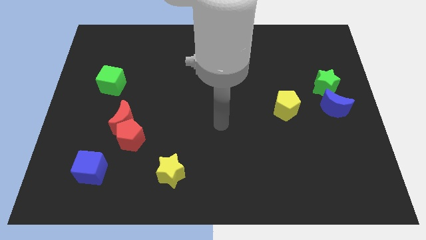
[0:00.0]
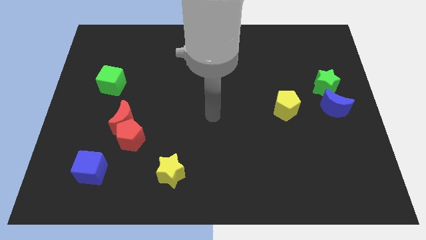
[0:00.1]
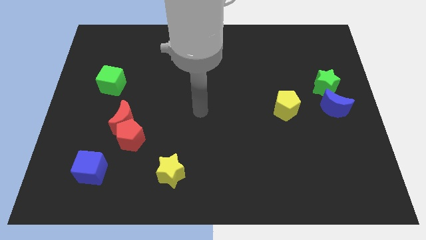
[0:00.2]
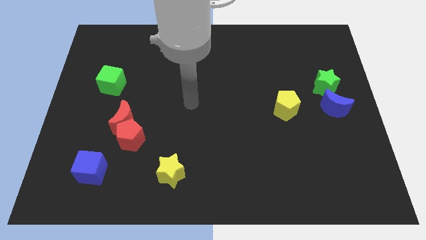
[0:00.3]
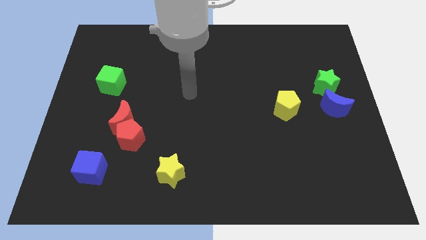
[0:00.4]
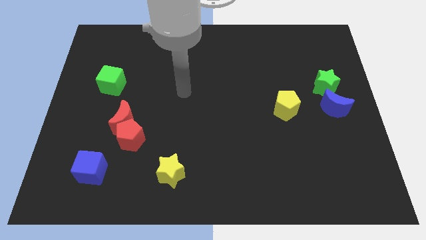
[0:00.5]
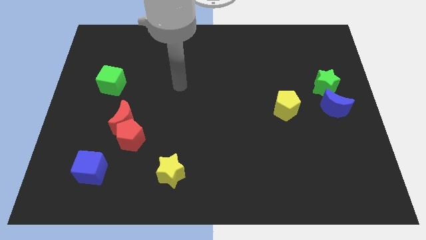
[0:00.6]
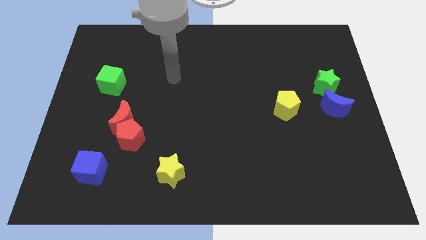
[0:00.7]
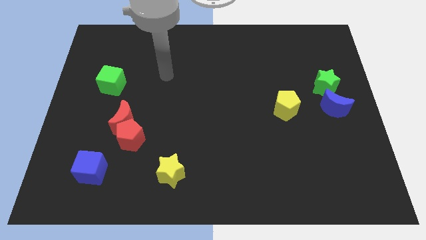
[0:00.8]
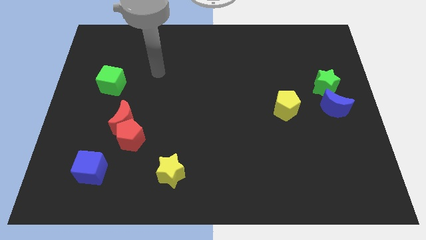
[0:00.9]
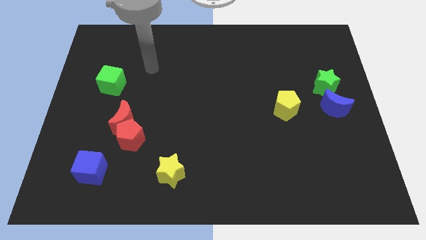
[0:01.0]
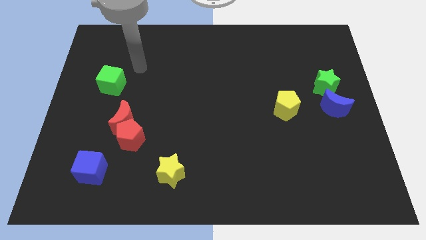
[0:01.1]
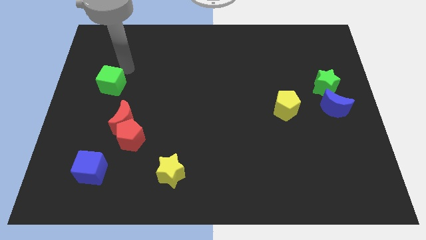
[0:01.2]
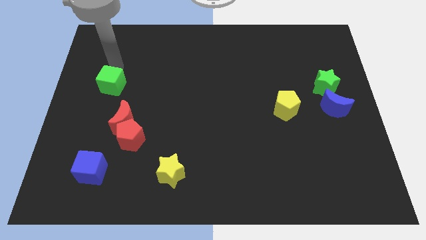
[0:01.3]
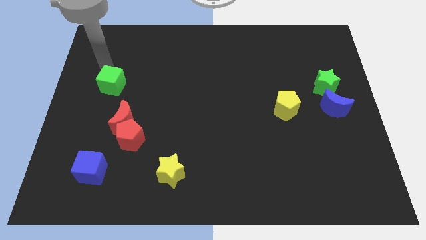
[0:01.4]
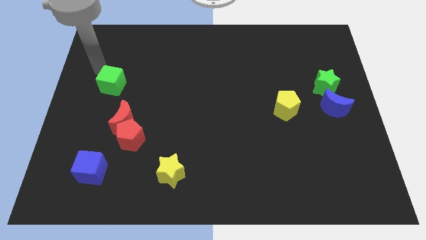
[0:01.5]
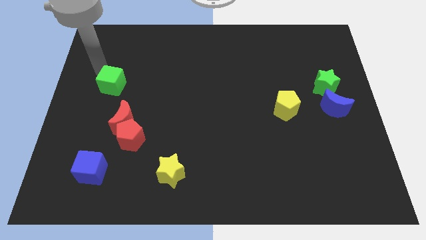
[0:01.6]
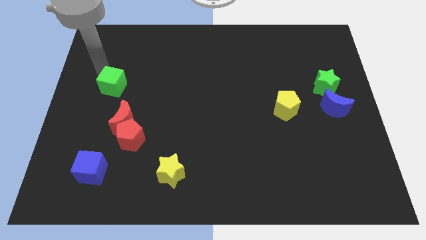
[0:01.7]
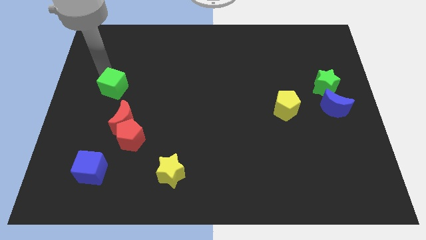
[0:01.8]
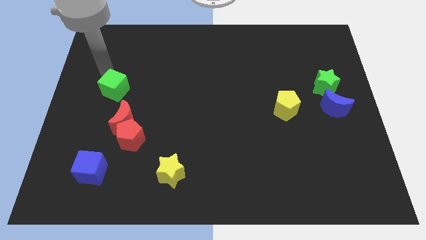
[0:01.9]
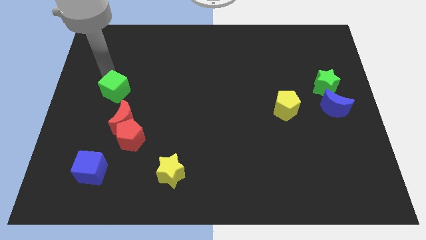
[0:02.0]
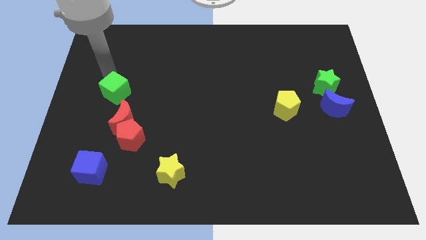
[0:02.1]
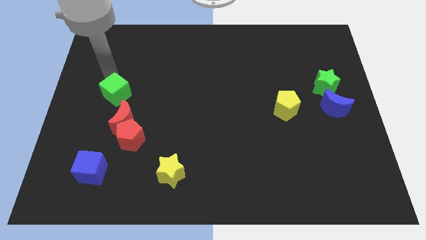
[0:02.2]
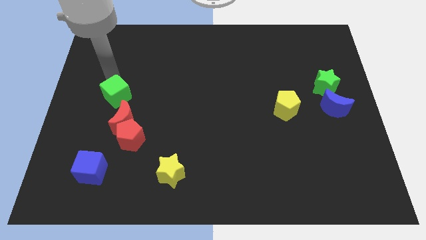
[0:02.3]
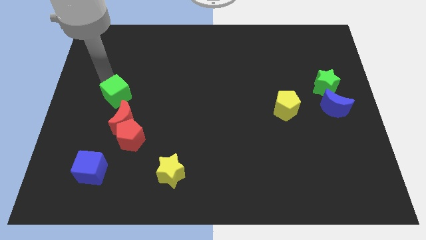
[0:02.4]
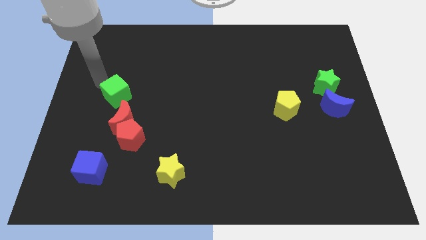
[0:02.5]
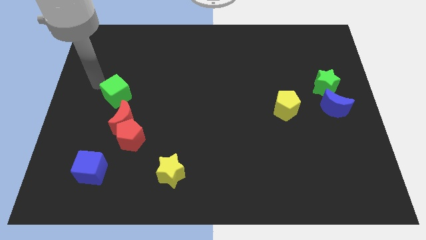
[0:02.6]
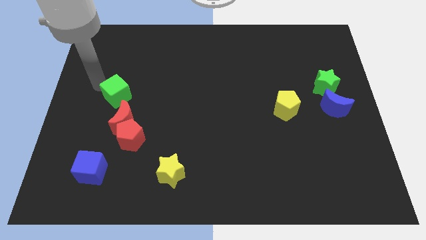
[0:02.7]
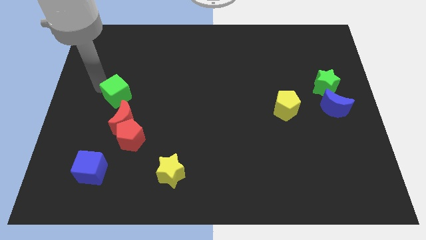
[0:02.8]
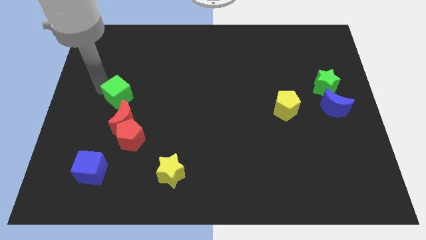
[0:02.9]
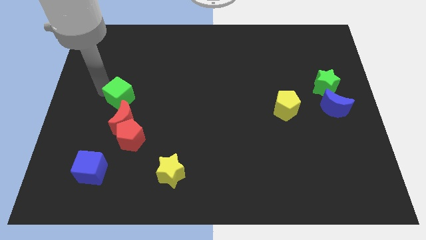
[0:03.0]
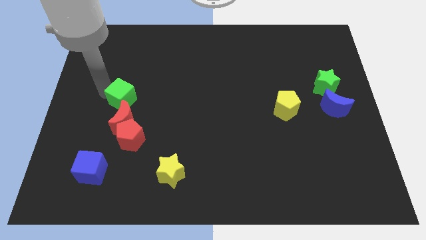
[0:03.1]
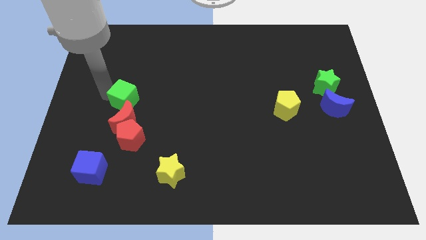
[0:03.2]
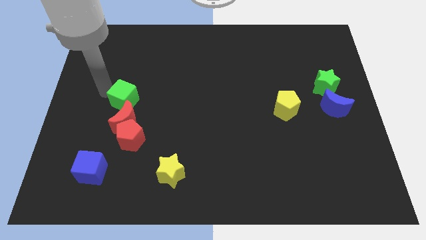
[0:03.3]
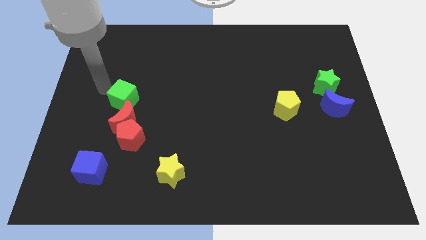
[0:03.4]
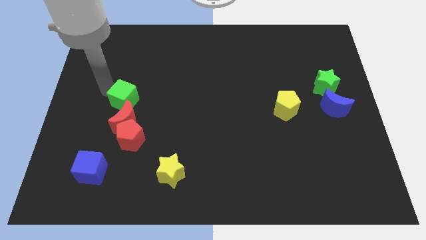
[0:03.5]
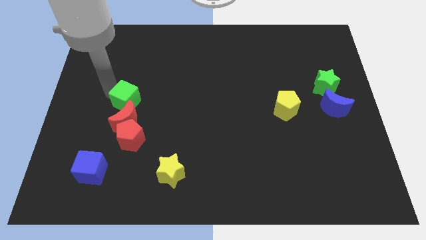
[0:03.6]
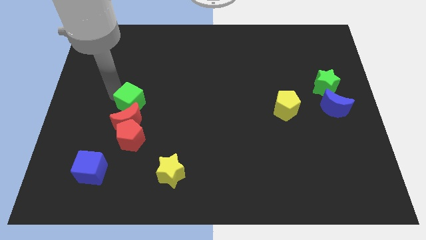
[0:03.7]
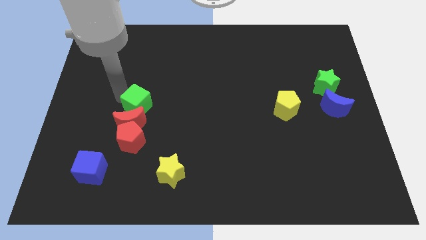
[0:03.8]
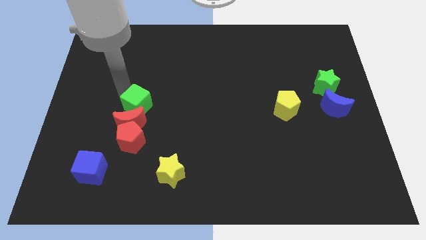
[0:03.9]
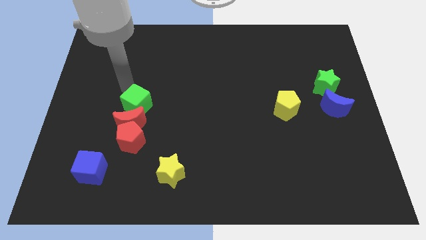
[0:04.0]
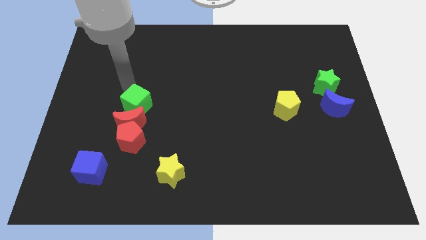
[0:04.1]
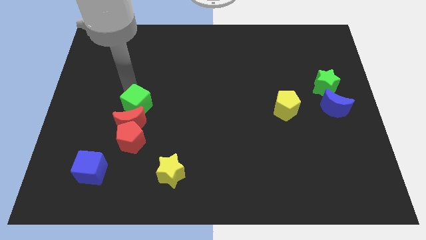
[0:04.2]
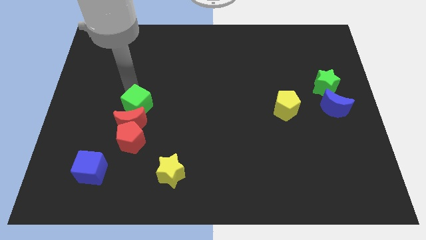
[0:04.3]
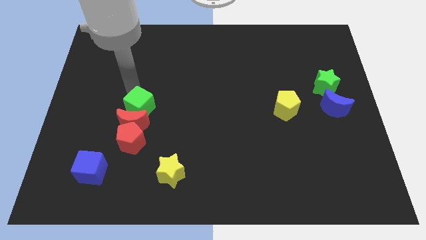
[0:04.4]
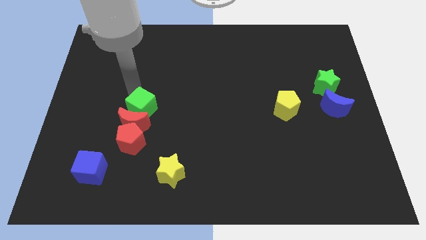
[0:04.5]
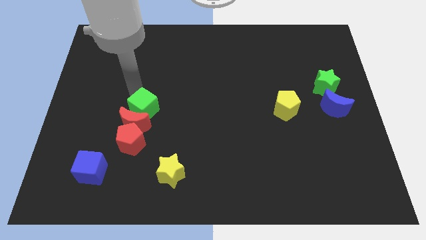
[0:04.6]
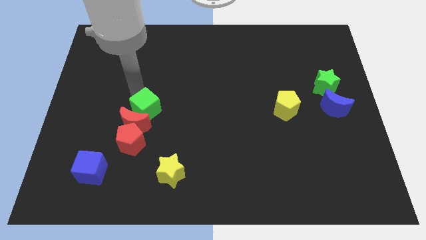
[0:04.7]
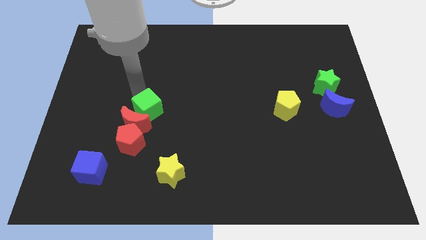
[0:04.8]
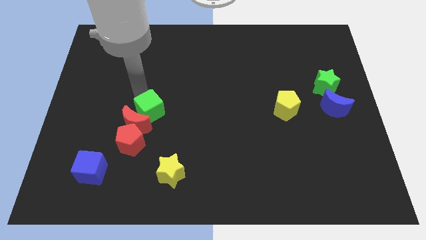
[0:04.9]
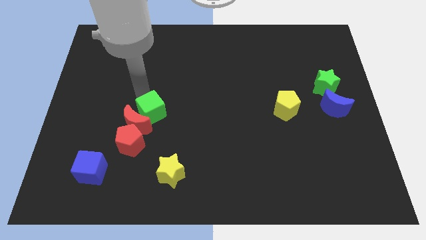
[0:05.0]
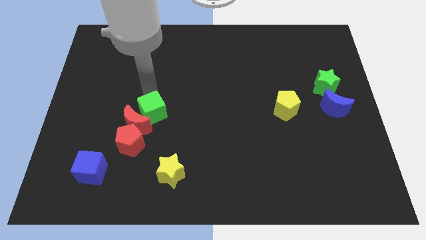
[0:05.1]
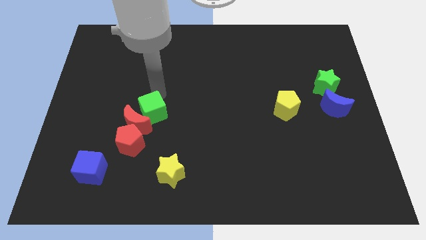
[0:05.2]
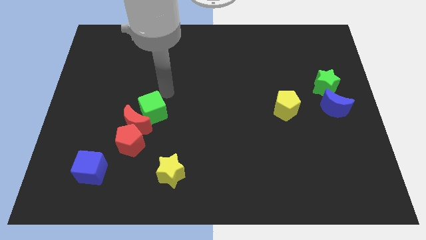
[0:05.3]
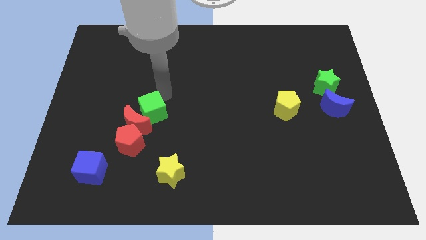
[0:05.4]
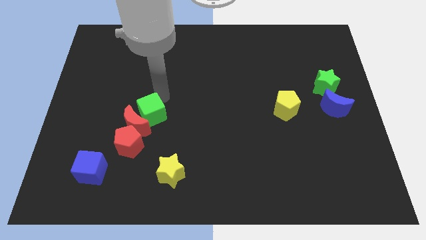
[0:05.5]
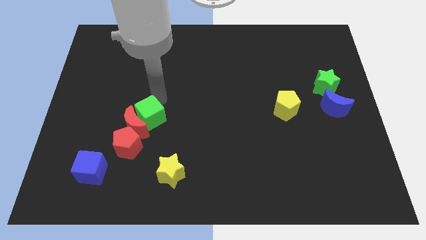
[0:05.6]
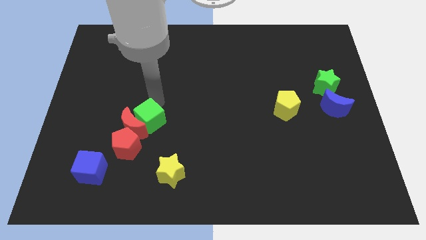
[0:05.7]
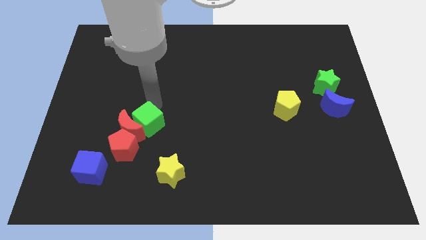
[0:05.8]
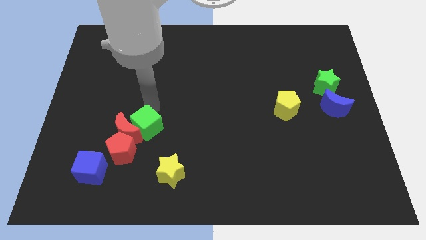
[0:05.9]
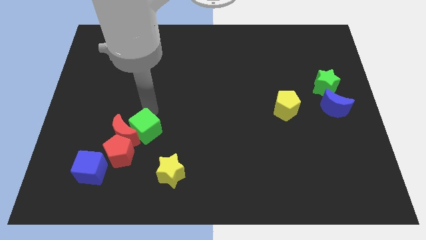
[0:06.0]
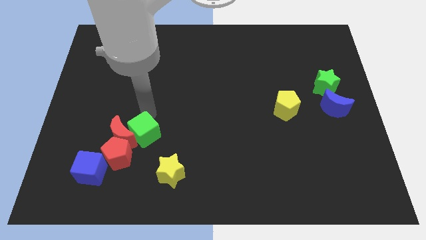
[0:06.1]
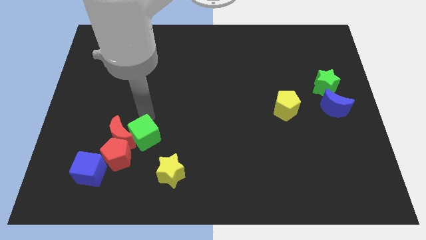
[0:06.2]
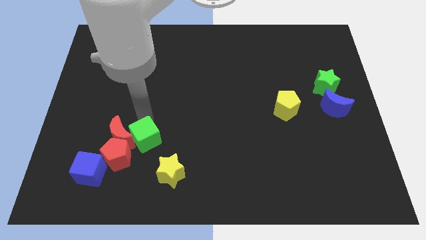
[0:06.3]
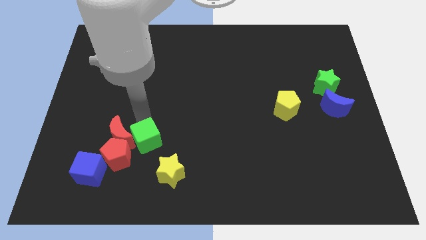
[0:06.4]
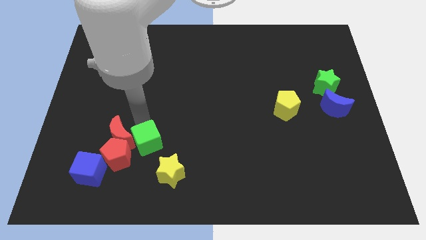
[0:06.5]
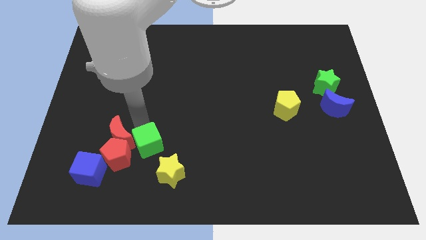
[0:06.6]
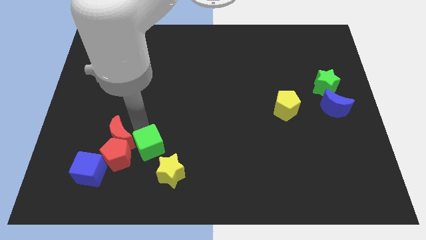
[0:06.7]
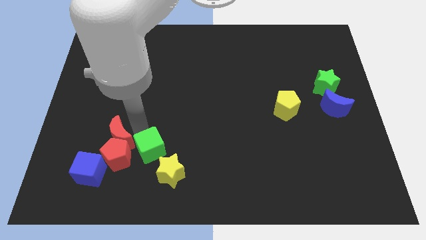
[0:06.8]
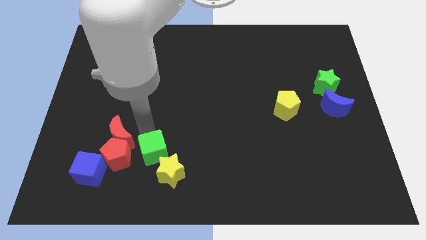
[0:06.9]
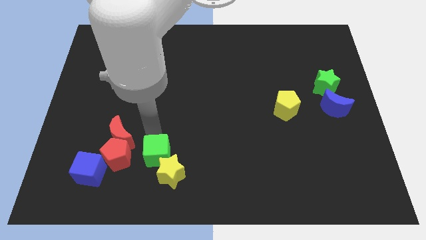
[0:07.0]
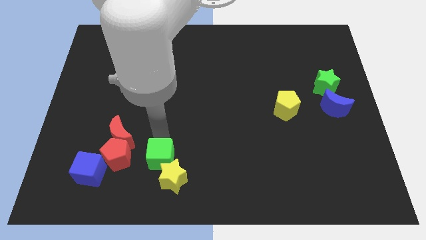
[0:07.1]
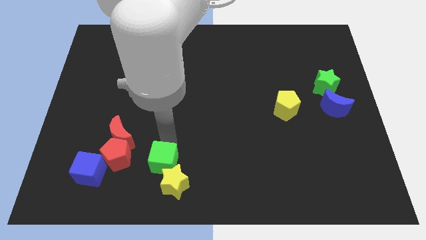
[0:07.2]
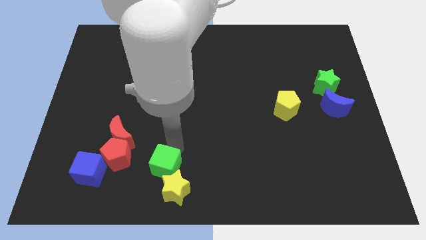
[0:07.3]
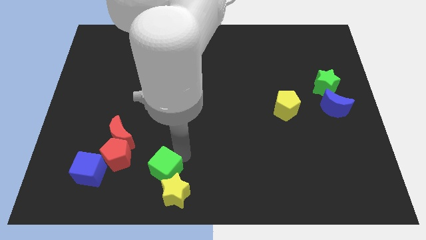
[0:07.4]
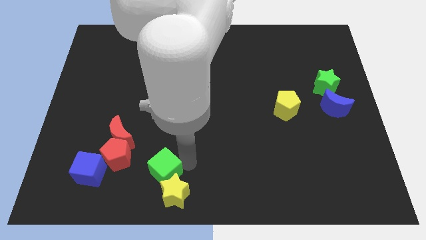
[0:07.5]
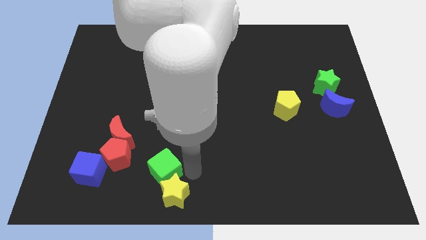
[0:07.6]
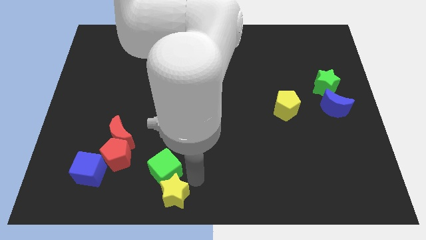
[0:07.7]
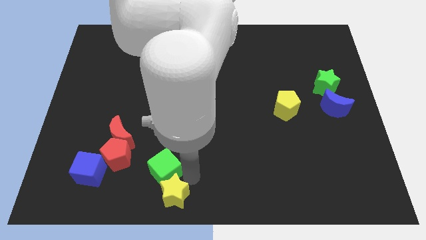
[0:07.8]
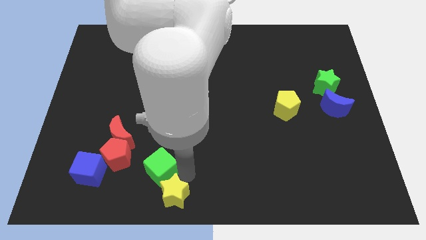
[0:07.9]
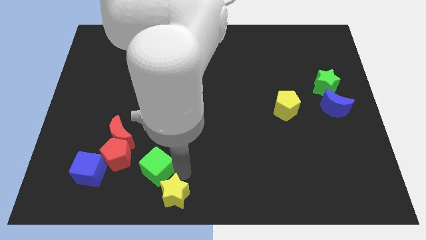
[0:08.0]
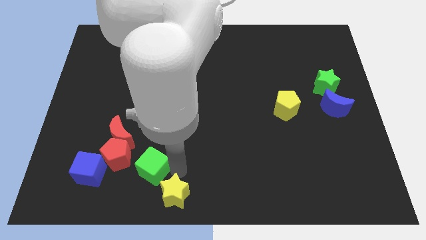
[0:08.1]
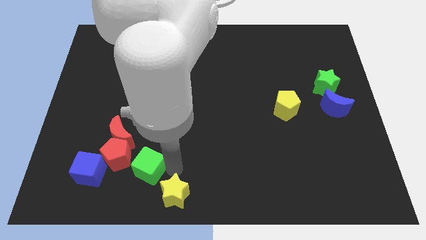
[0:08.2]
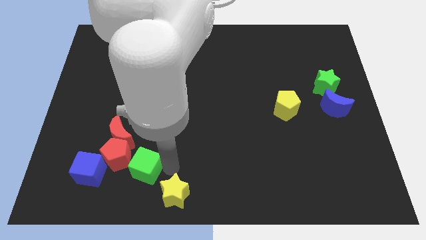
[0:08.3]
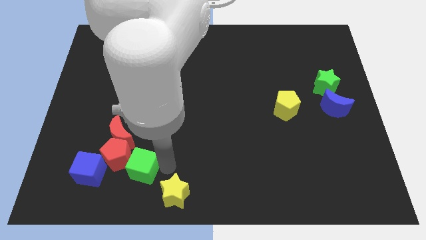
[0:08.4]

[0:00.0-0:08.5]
put the green cube to the red pentagon
